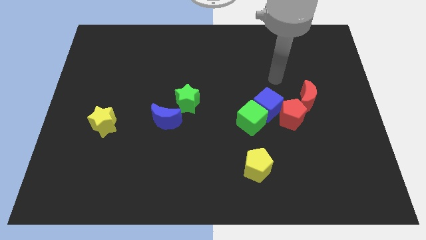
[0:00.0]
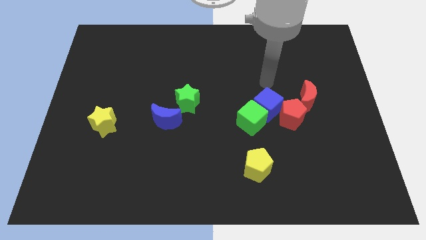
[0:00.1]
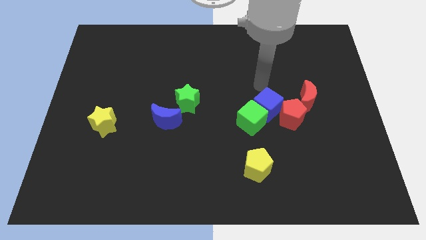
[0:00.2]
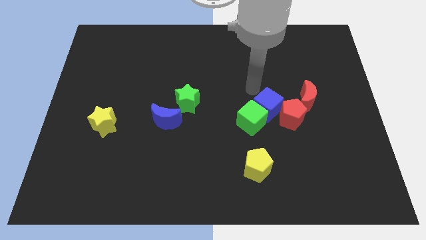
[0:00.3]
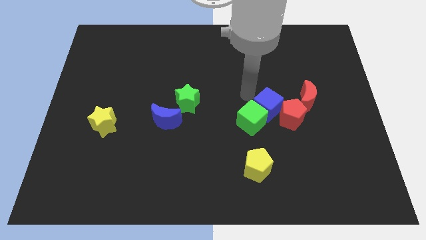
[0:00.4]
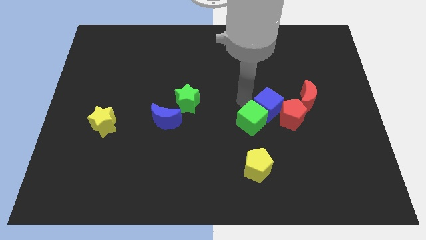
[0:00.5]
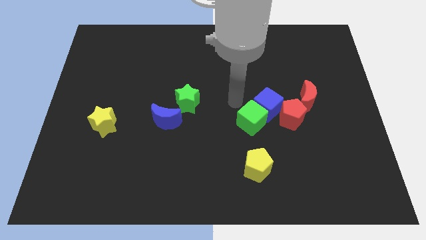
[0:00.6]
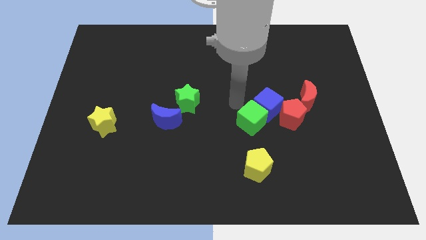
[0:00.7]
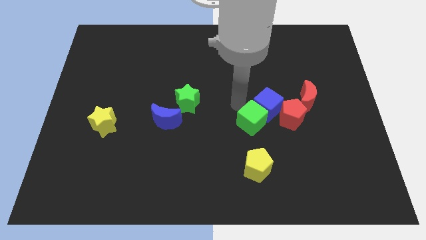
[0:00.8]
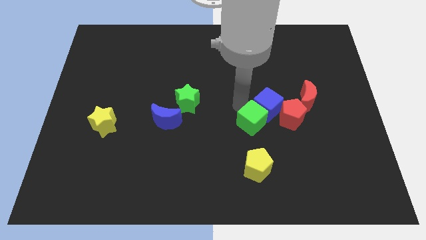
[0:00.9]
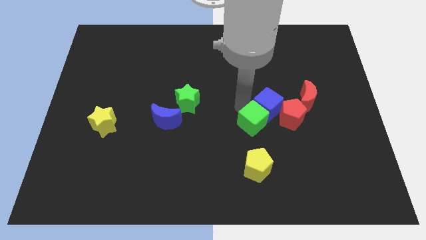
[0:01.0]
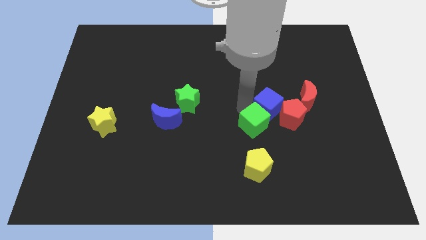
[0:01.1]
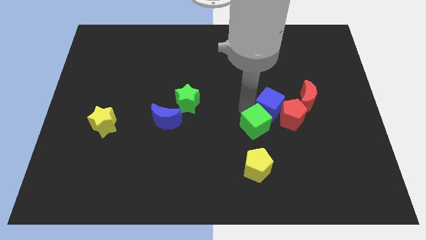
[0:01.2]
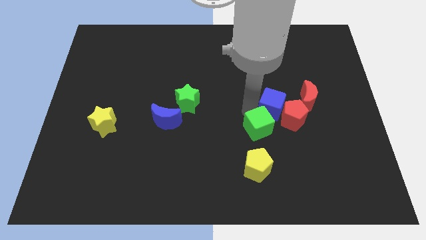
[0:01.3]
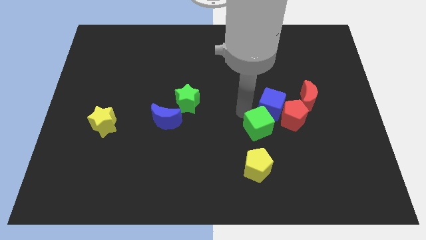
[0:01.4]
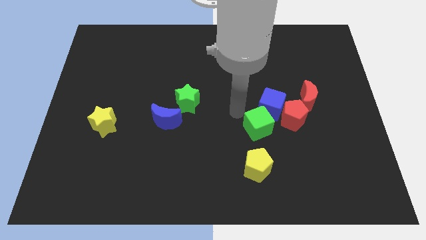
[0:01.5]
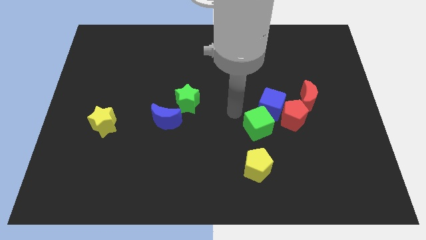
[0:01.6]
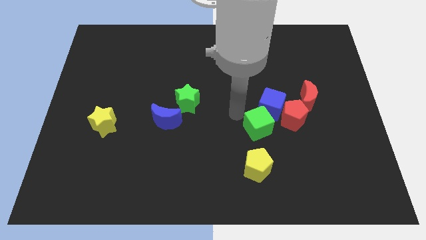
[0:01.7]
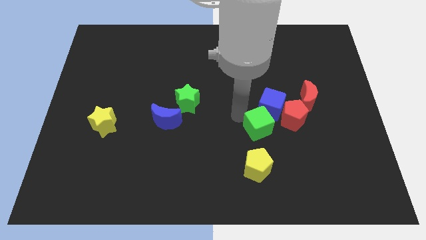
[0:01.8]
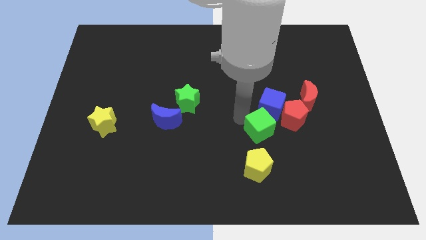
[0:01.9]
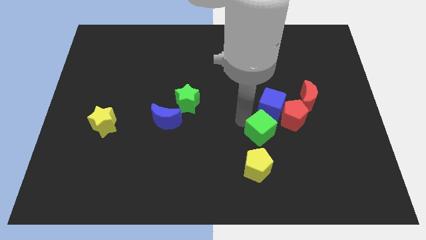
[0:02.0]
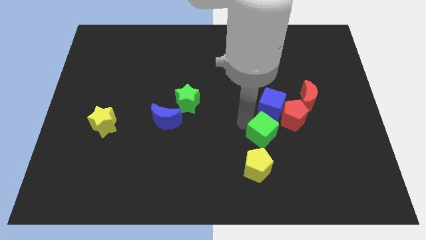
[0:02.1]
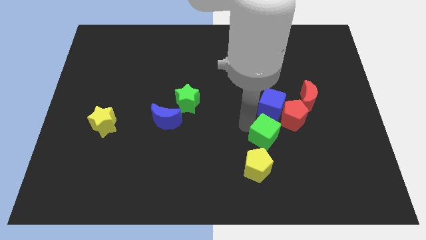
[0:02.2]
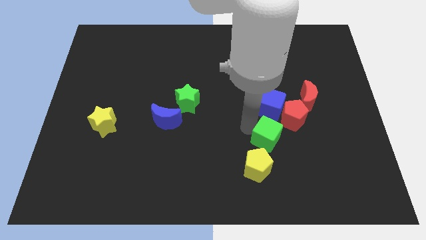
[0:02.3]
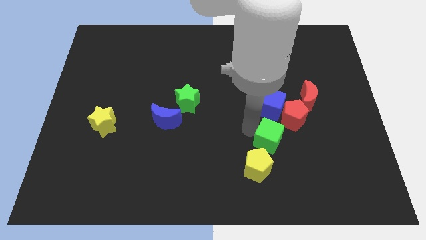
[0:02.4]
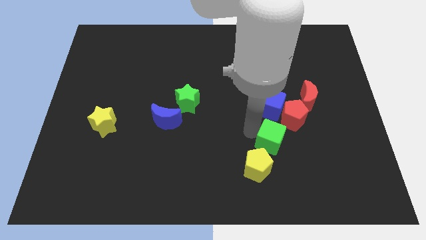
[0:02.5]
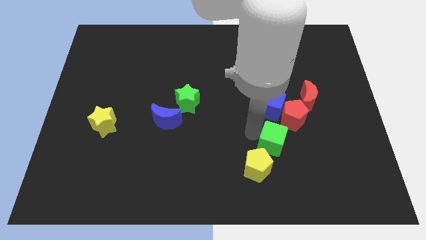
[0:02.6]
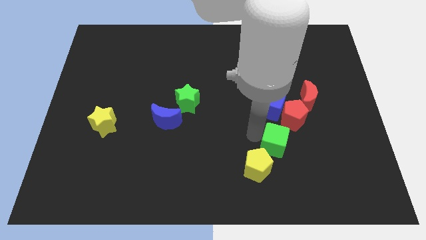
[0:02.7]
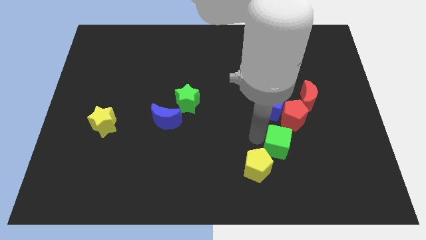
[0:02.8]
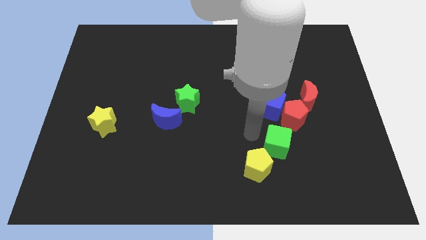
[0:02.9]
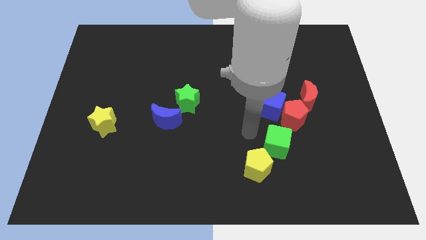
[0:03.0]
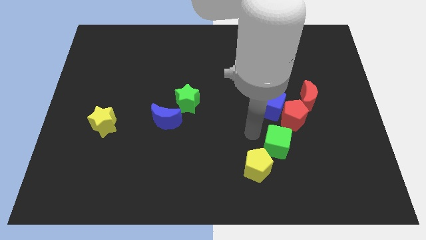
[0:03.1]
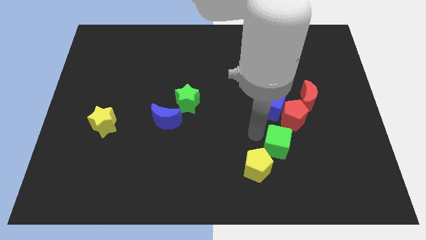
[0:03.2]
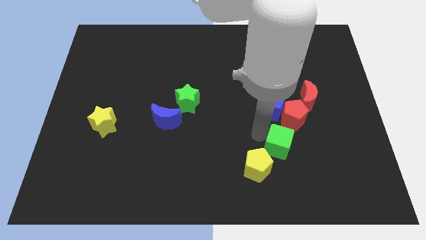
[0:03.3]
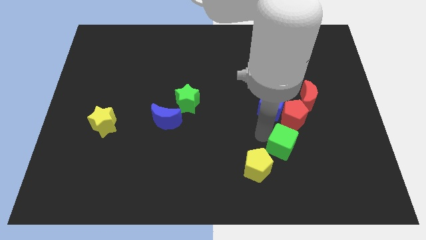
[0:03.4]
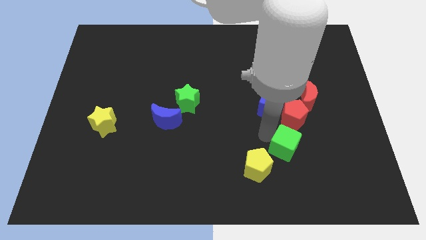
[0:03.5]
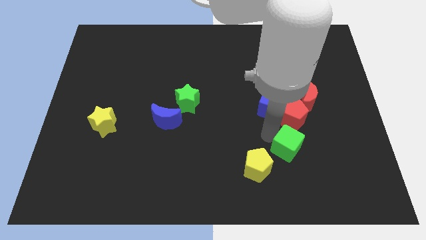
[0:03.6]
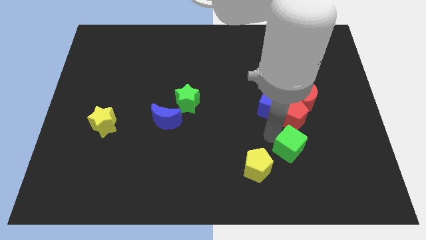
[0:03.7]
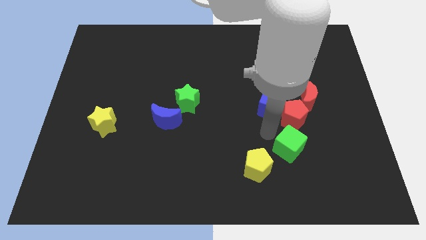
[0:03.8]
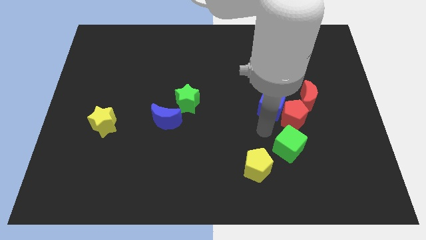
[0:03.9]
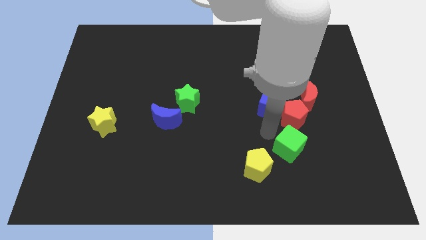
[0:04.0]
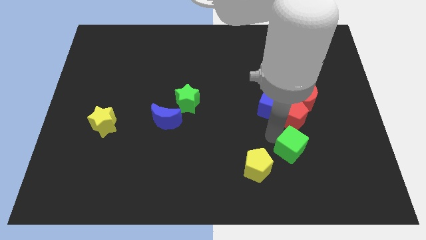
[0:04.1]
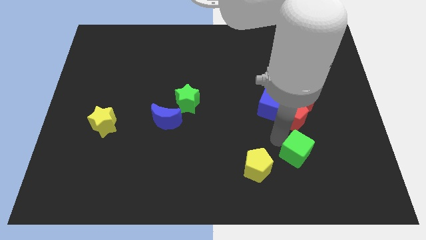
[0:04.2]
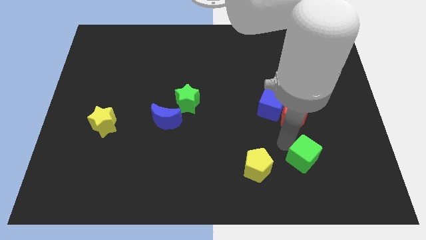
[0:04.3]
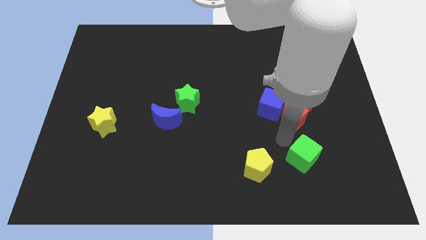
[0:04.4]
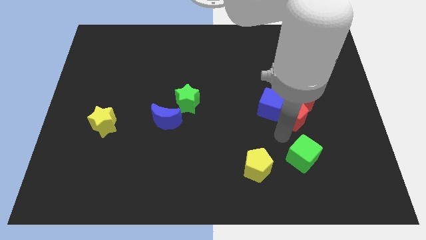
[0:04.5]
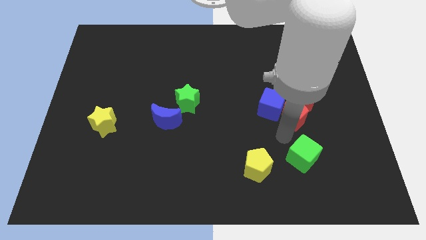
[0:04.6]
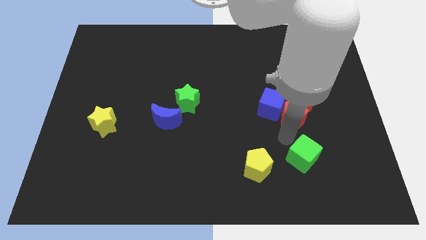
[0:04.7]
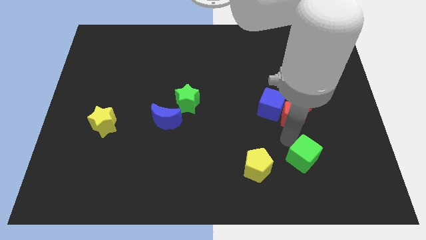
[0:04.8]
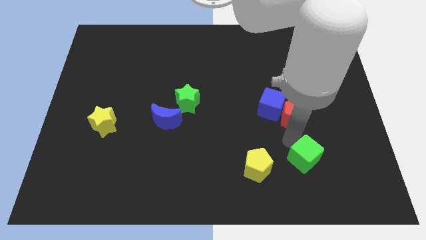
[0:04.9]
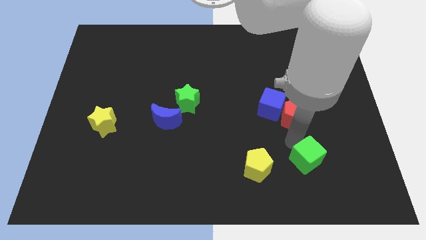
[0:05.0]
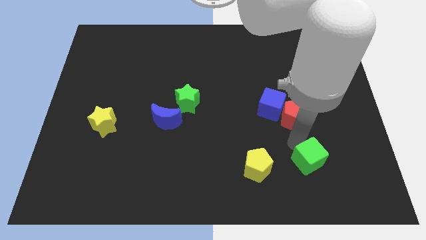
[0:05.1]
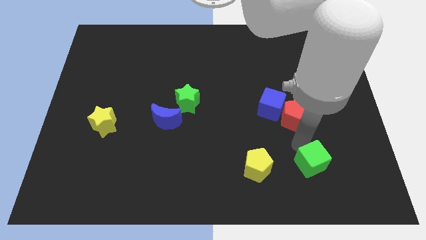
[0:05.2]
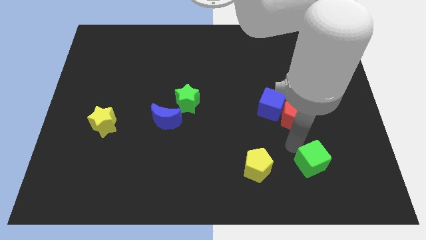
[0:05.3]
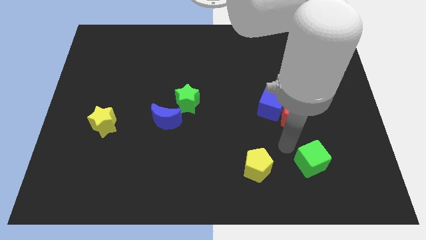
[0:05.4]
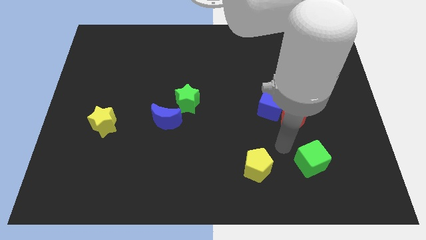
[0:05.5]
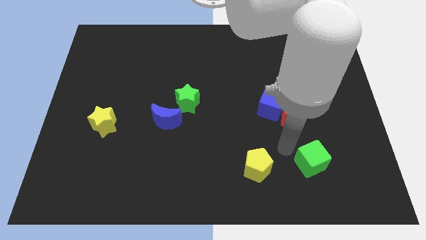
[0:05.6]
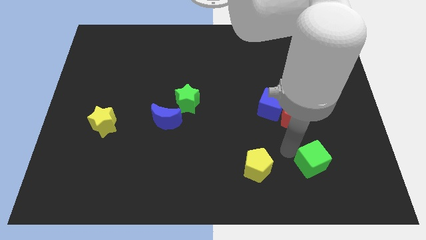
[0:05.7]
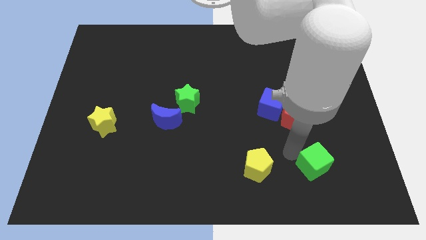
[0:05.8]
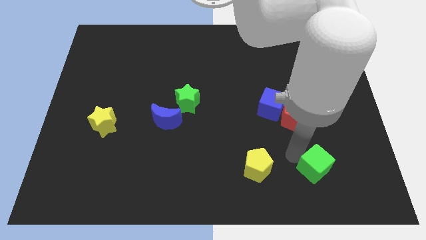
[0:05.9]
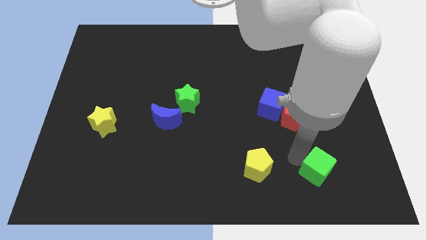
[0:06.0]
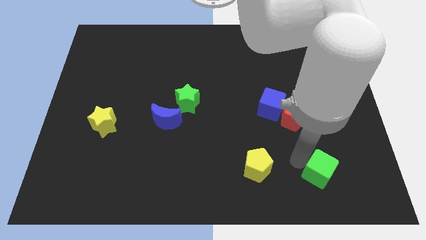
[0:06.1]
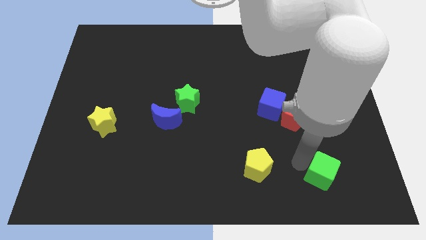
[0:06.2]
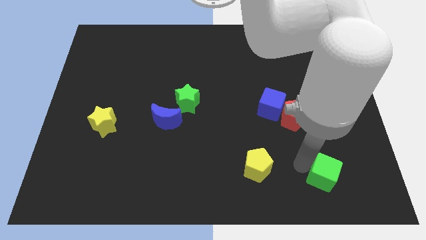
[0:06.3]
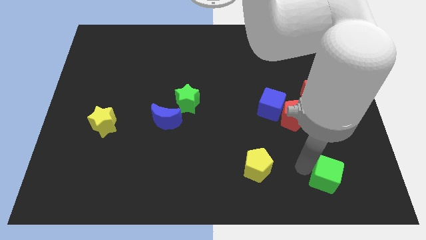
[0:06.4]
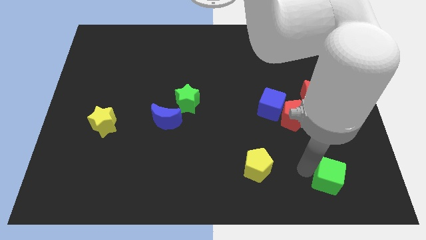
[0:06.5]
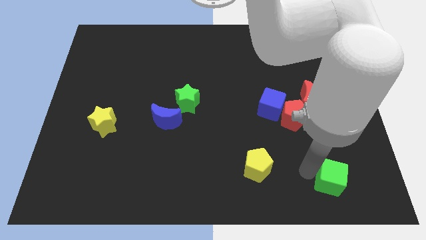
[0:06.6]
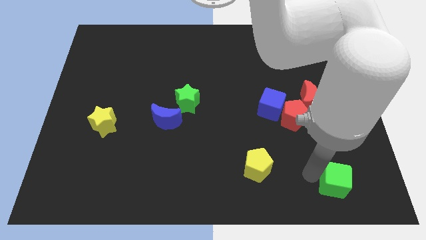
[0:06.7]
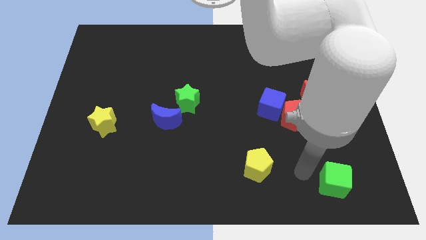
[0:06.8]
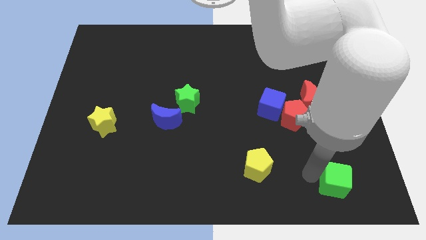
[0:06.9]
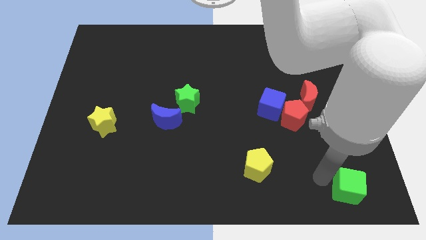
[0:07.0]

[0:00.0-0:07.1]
push the green cube to the lower right corner

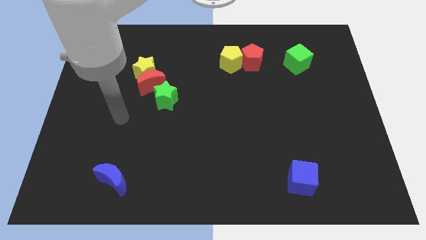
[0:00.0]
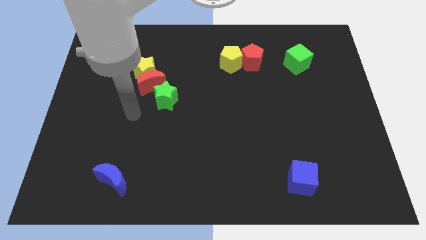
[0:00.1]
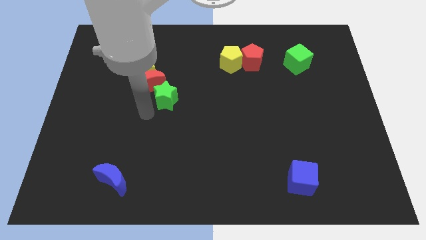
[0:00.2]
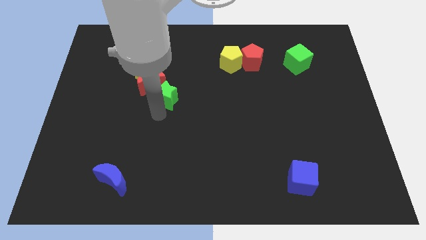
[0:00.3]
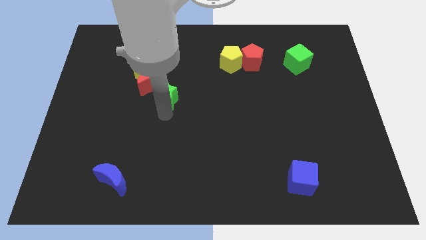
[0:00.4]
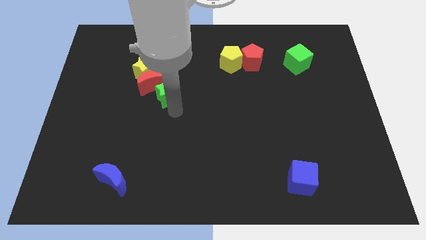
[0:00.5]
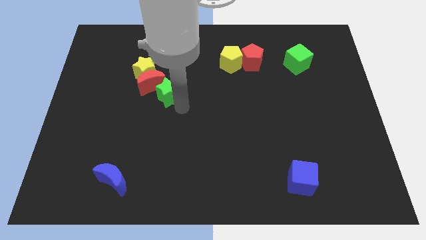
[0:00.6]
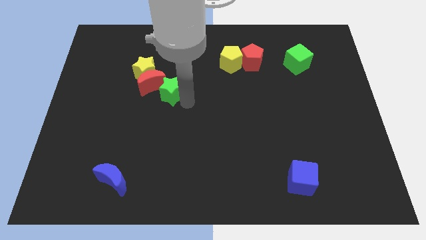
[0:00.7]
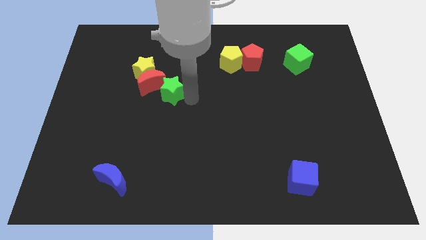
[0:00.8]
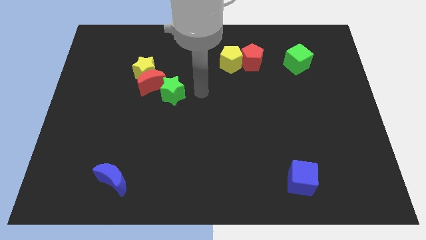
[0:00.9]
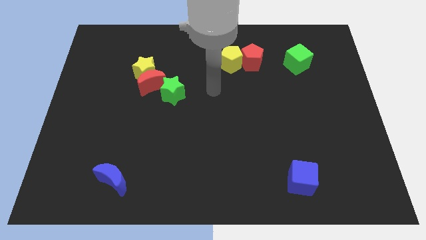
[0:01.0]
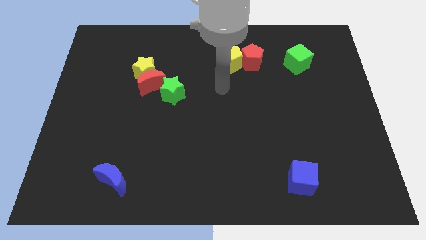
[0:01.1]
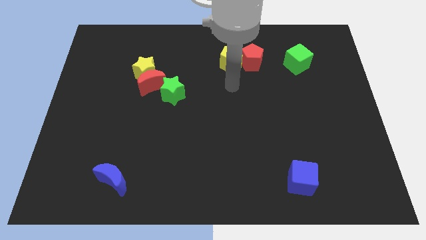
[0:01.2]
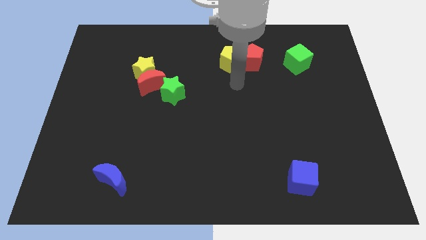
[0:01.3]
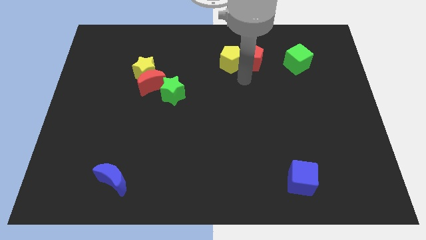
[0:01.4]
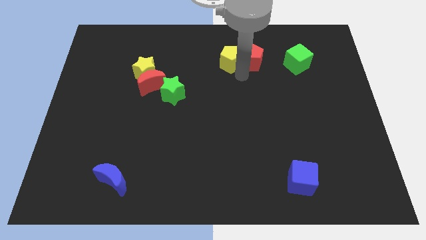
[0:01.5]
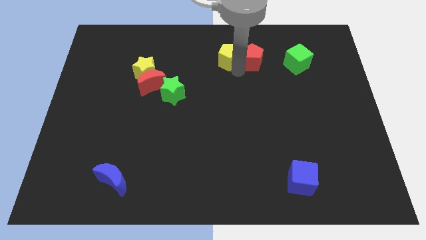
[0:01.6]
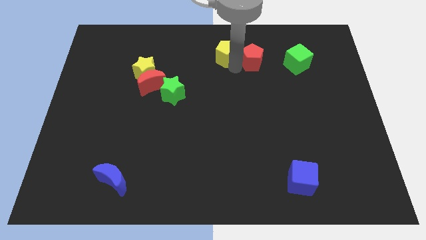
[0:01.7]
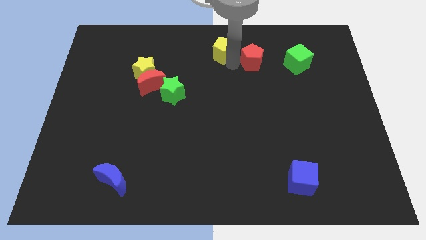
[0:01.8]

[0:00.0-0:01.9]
move the yellow pentagon to the top side
